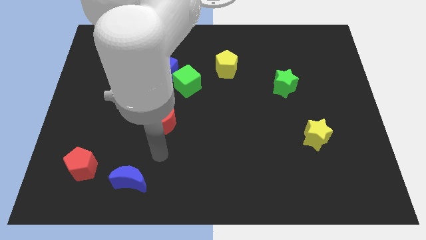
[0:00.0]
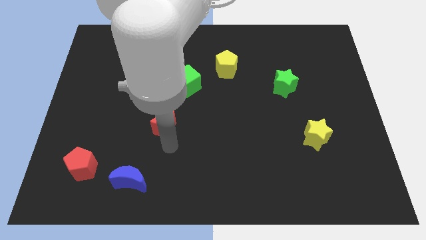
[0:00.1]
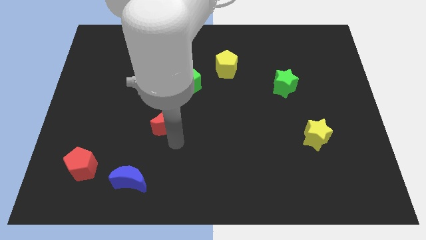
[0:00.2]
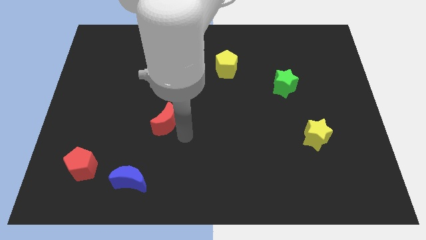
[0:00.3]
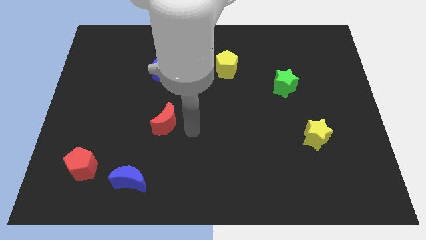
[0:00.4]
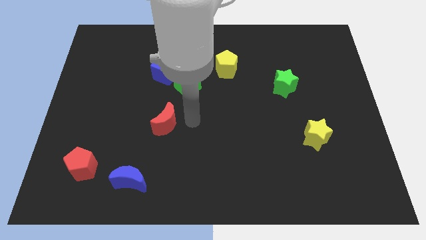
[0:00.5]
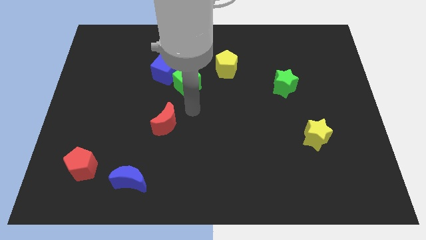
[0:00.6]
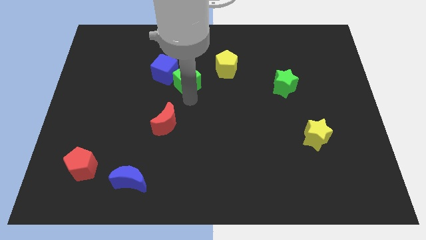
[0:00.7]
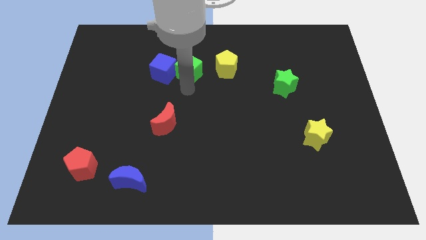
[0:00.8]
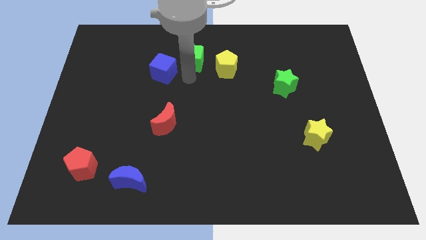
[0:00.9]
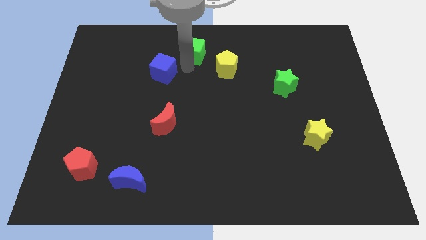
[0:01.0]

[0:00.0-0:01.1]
pull the blue cube apart from the green cube

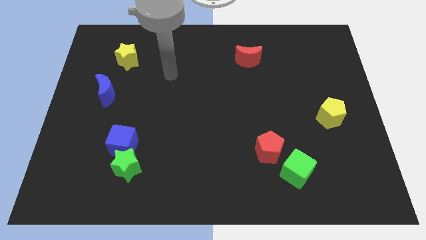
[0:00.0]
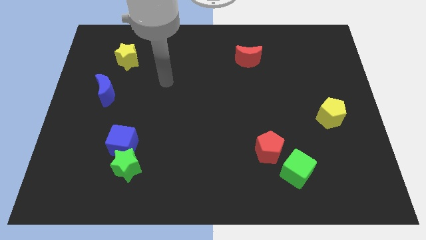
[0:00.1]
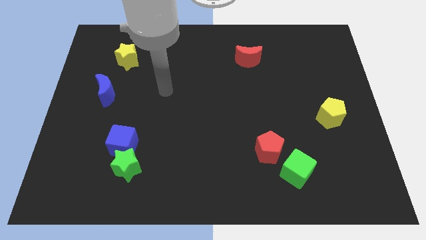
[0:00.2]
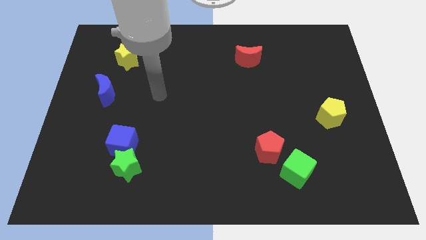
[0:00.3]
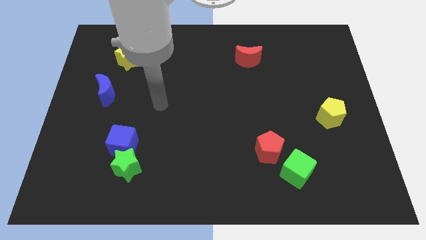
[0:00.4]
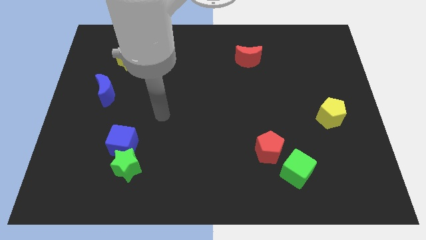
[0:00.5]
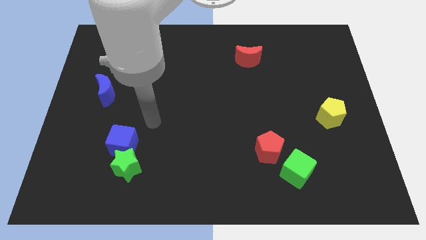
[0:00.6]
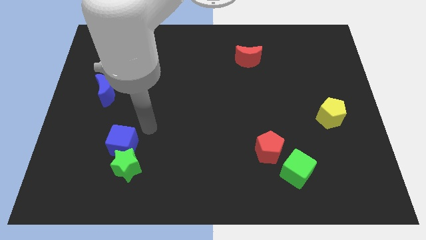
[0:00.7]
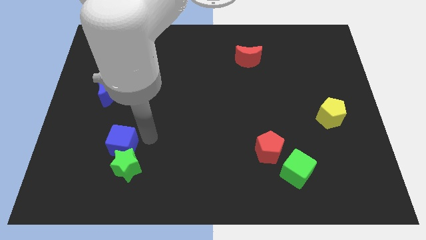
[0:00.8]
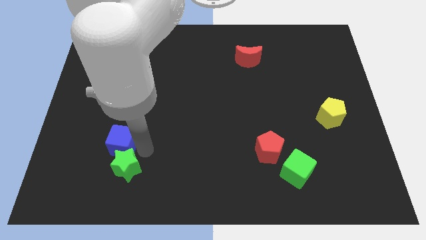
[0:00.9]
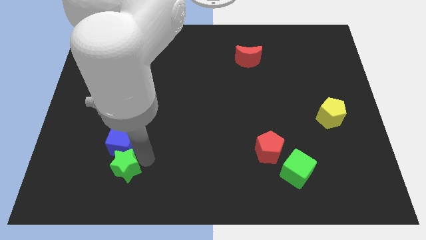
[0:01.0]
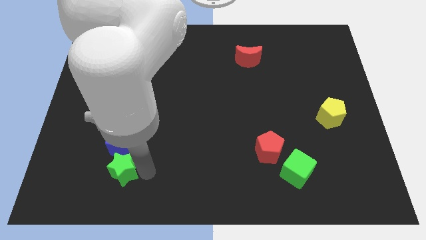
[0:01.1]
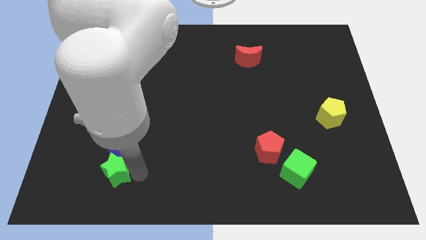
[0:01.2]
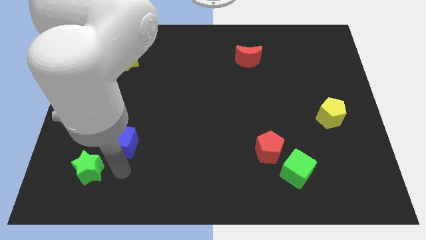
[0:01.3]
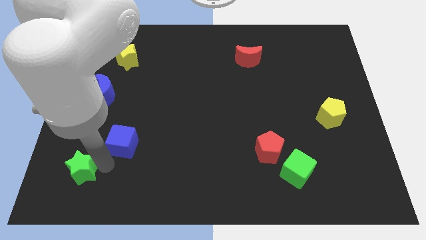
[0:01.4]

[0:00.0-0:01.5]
pull the blue cube apart from the green star

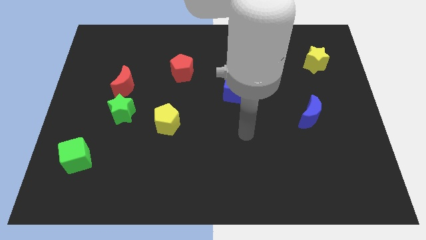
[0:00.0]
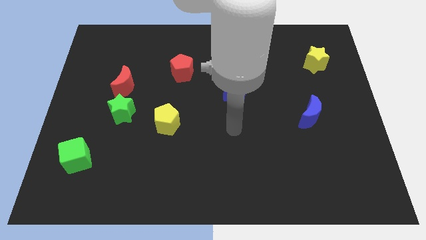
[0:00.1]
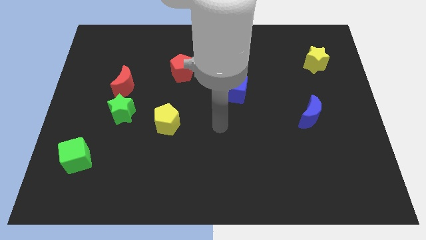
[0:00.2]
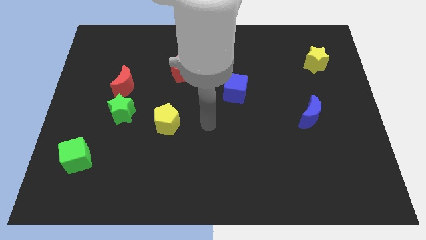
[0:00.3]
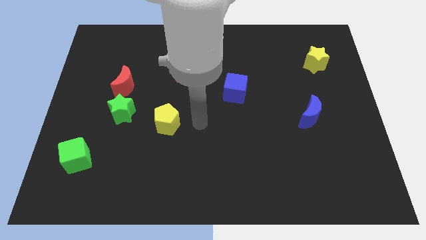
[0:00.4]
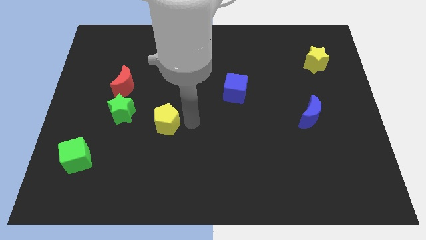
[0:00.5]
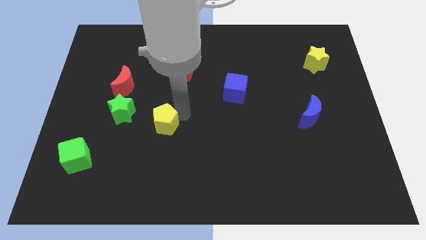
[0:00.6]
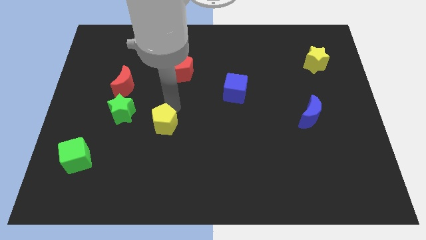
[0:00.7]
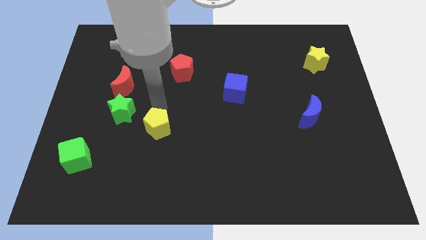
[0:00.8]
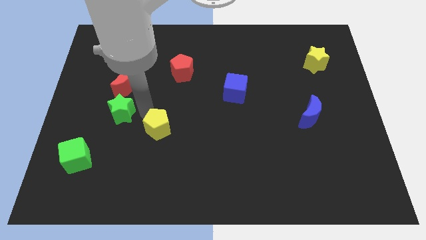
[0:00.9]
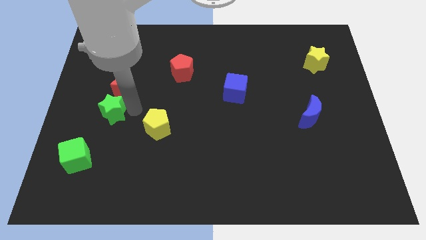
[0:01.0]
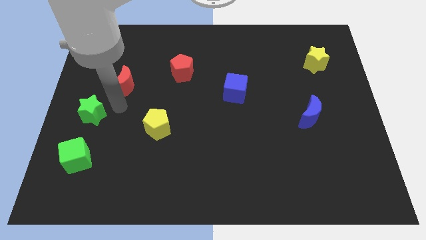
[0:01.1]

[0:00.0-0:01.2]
pull the red moon apart from the green star

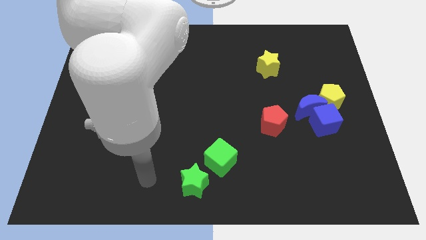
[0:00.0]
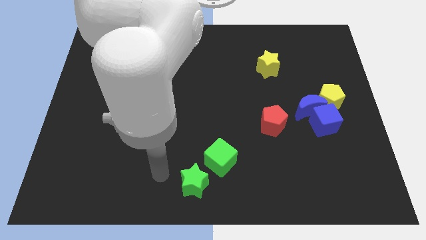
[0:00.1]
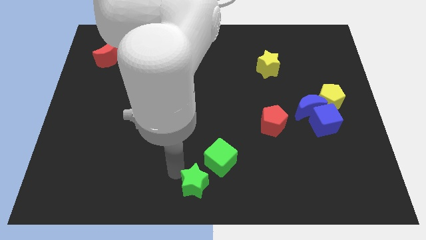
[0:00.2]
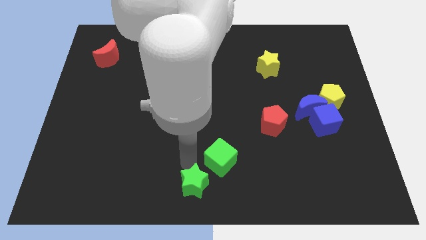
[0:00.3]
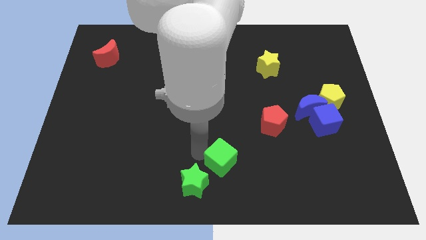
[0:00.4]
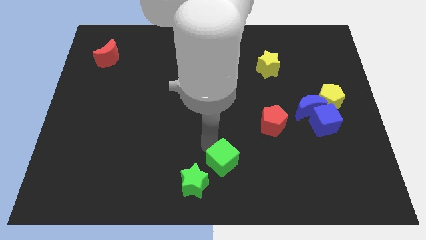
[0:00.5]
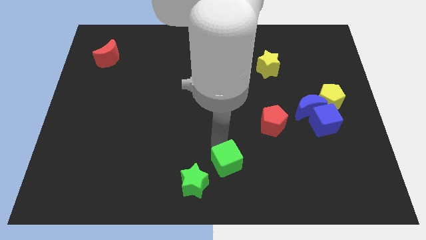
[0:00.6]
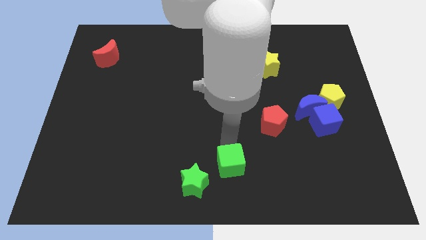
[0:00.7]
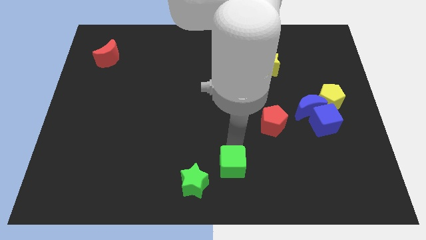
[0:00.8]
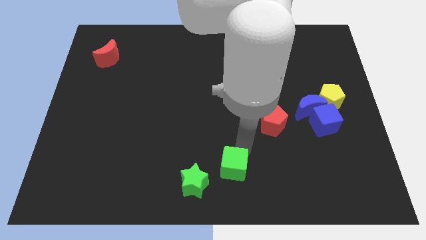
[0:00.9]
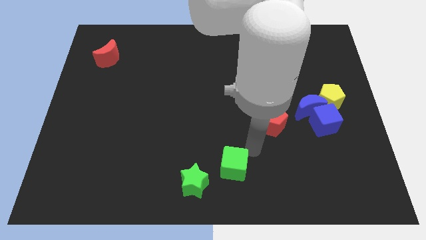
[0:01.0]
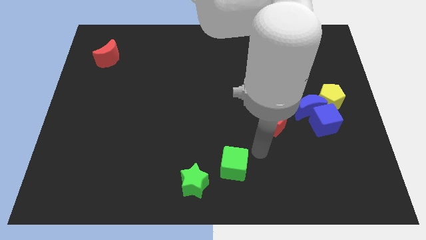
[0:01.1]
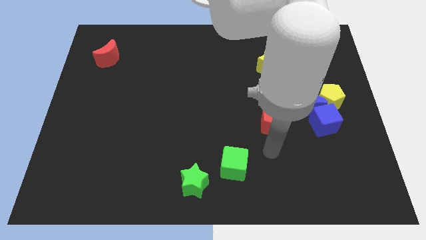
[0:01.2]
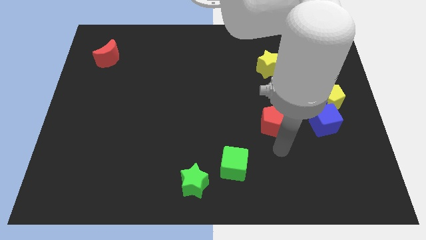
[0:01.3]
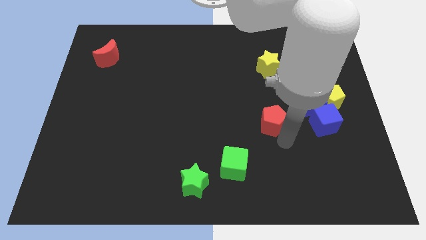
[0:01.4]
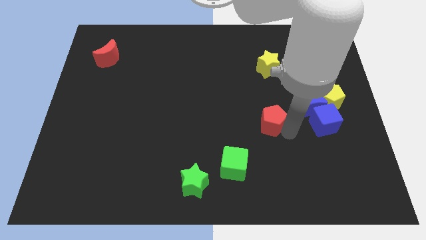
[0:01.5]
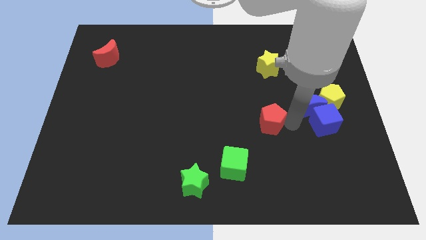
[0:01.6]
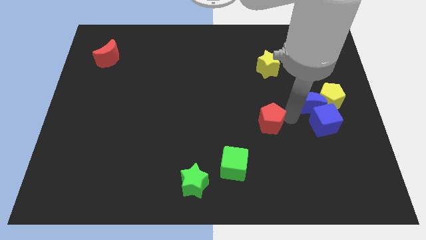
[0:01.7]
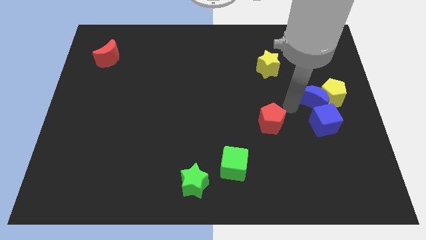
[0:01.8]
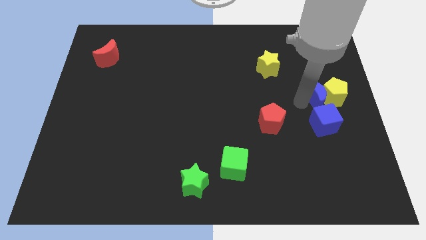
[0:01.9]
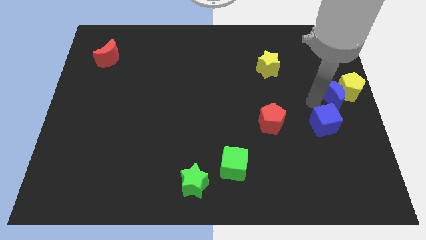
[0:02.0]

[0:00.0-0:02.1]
move the blue cube away from the blue moon and yellow pentagon

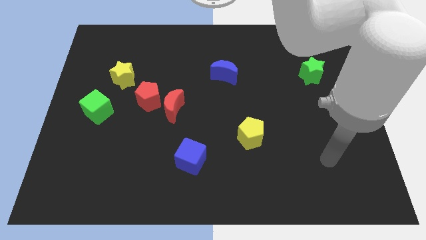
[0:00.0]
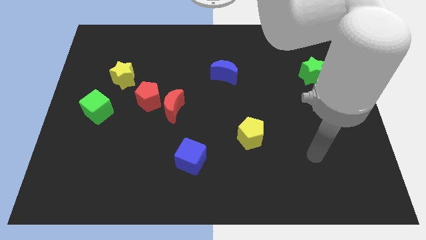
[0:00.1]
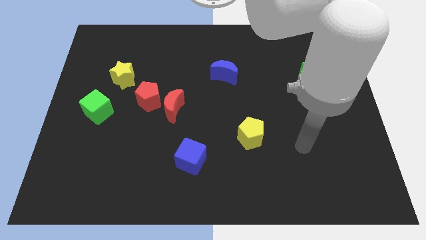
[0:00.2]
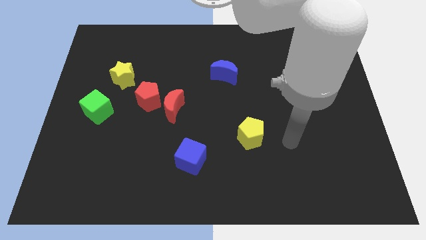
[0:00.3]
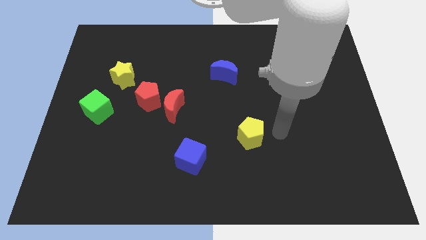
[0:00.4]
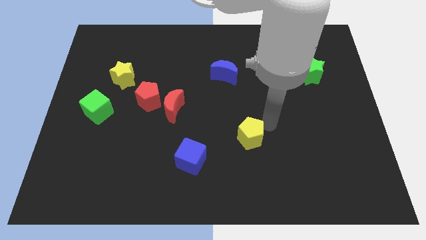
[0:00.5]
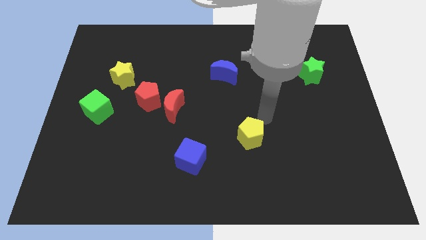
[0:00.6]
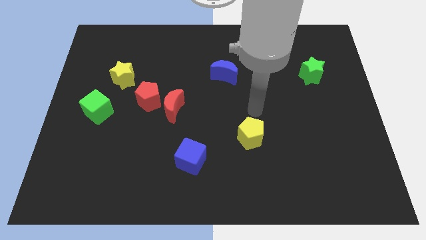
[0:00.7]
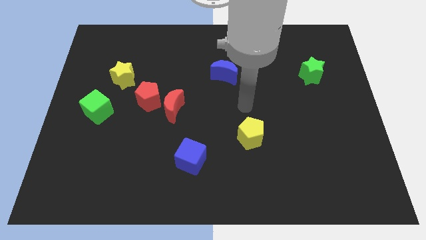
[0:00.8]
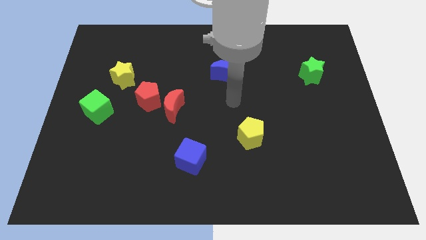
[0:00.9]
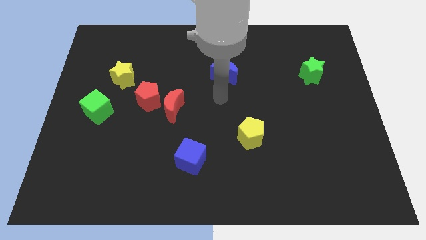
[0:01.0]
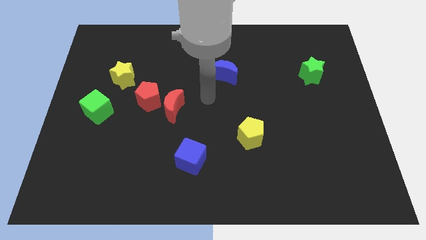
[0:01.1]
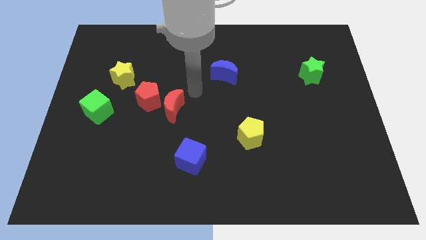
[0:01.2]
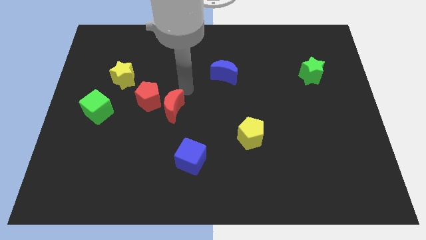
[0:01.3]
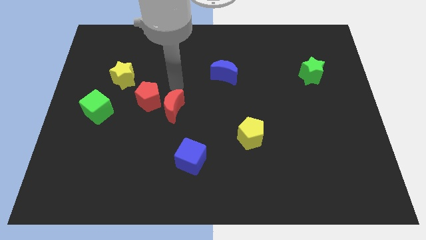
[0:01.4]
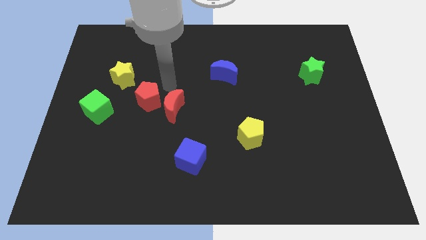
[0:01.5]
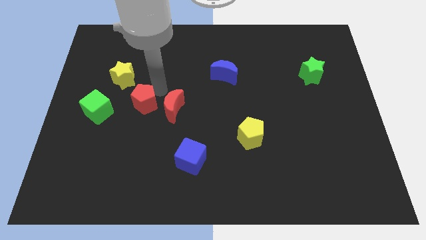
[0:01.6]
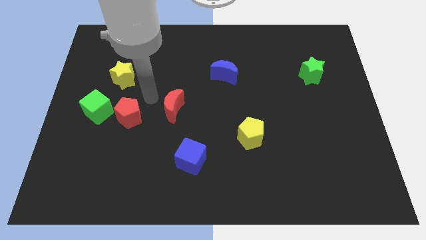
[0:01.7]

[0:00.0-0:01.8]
move the red moon away from the red pentagon

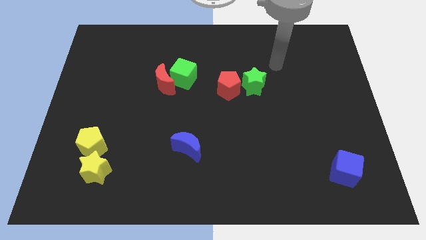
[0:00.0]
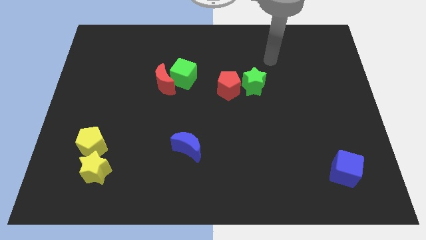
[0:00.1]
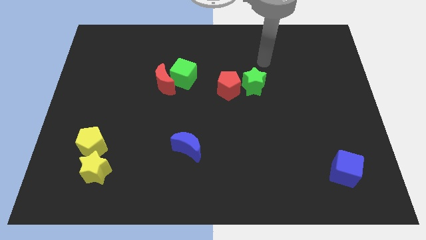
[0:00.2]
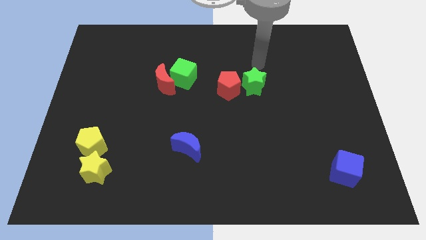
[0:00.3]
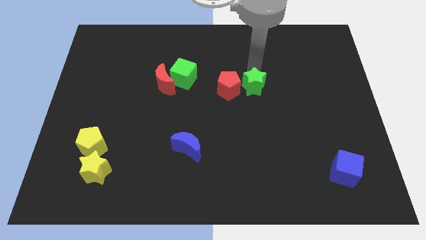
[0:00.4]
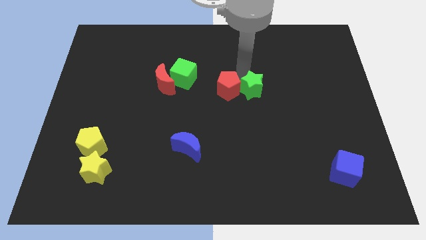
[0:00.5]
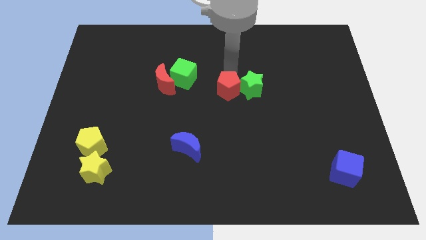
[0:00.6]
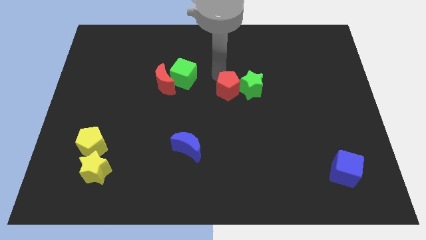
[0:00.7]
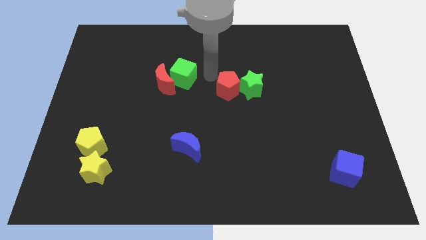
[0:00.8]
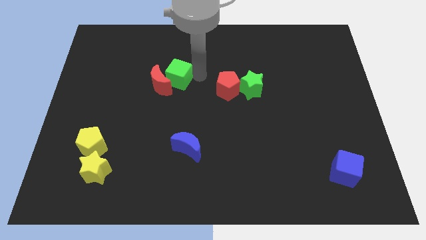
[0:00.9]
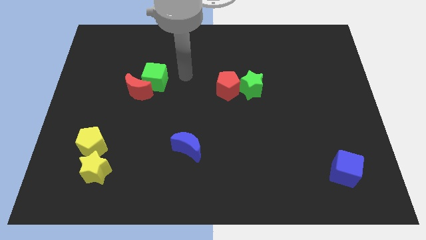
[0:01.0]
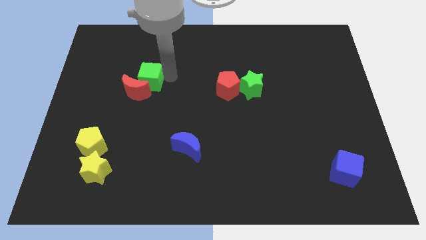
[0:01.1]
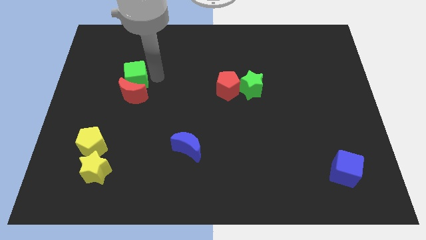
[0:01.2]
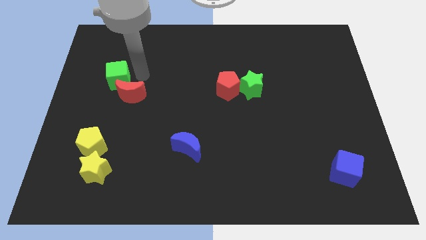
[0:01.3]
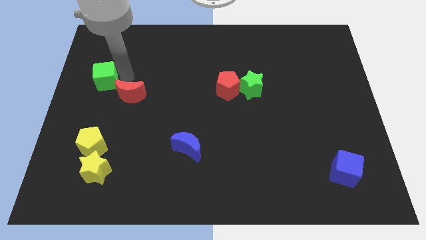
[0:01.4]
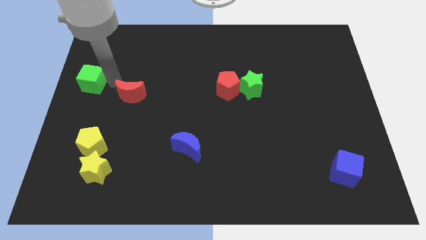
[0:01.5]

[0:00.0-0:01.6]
move the red moon away from the green cube
